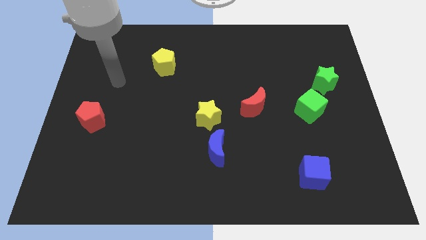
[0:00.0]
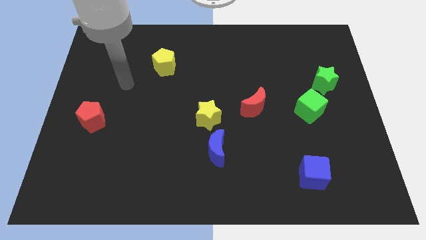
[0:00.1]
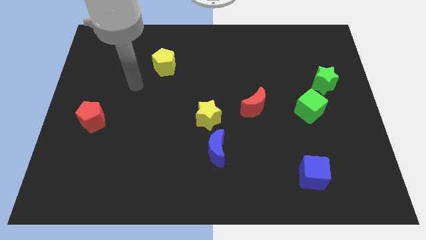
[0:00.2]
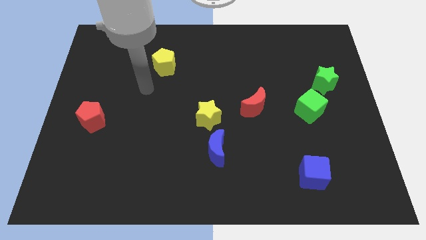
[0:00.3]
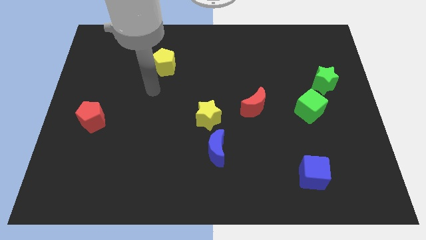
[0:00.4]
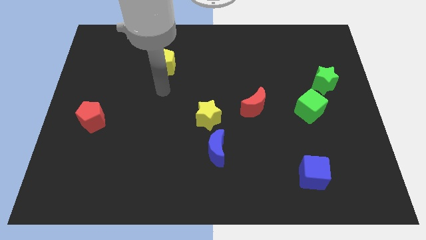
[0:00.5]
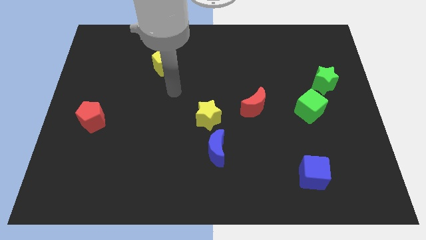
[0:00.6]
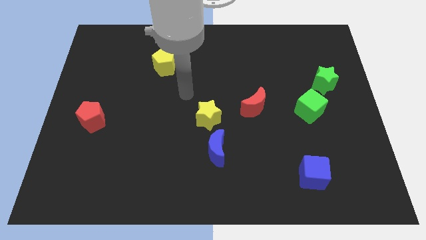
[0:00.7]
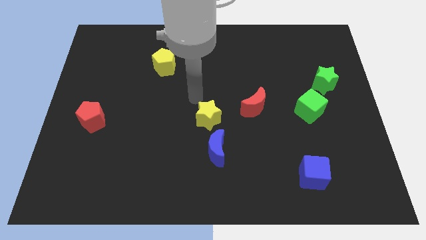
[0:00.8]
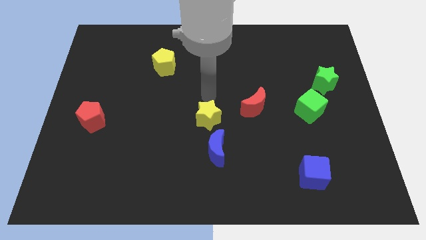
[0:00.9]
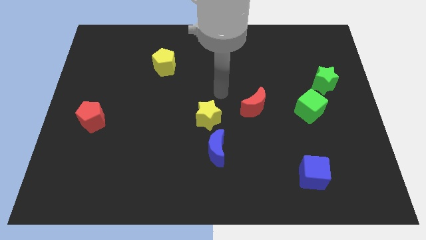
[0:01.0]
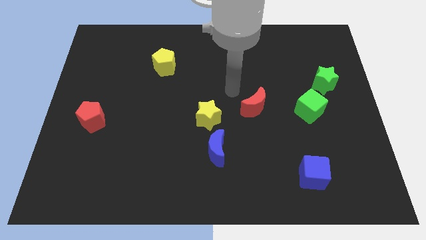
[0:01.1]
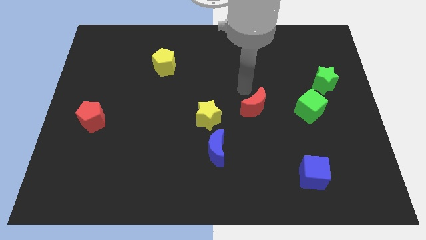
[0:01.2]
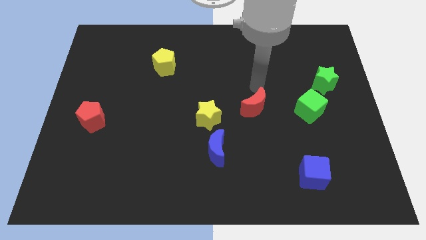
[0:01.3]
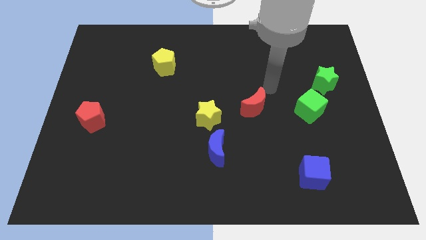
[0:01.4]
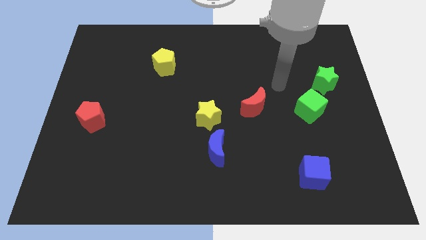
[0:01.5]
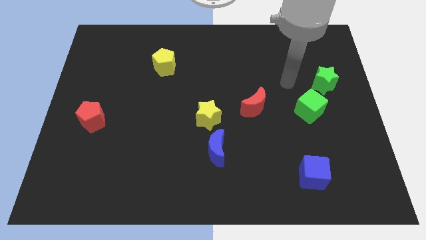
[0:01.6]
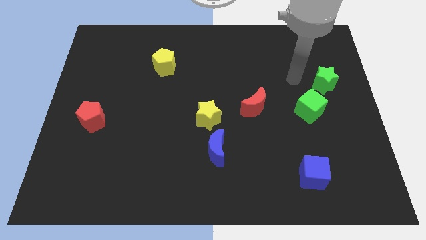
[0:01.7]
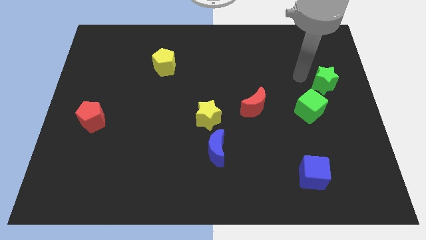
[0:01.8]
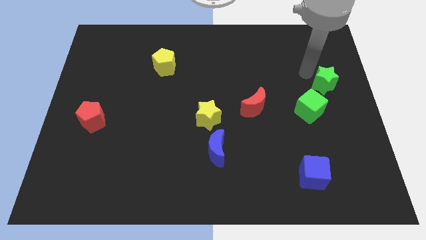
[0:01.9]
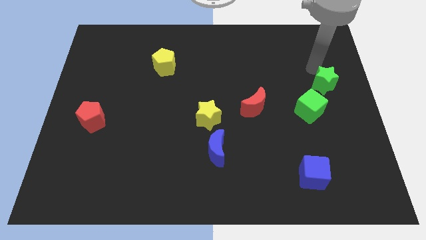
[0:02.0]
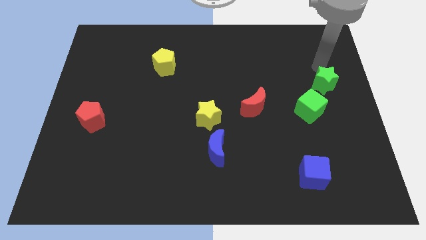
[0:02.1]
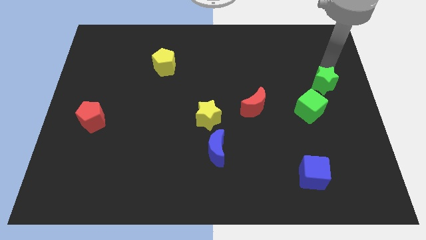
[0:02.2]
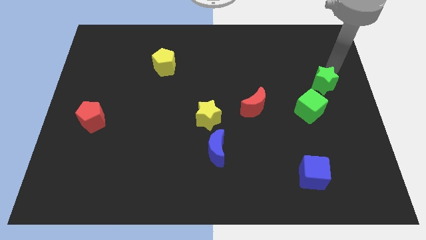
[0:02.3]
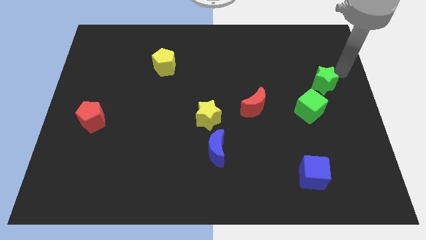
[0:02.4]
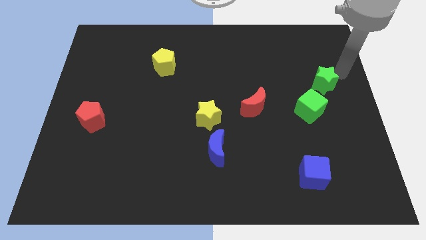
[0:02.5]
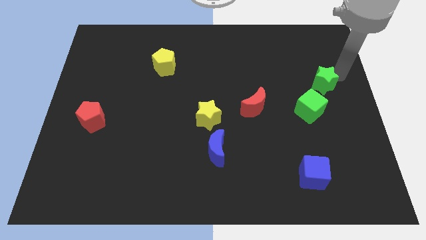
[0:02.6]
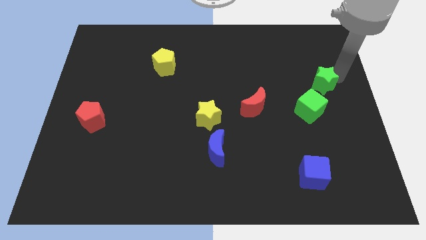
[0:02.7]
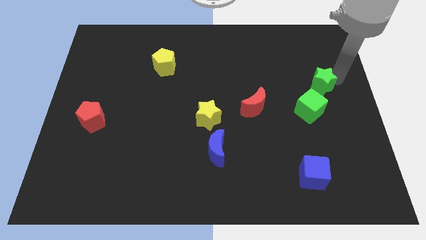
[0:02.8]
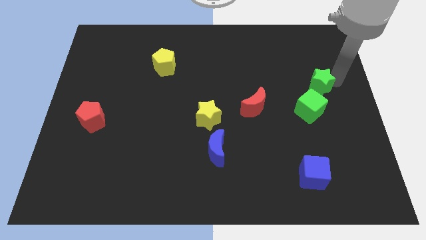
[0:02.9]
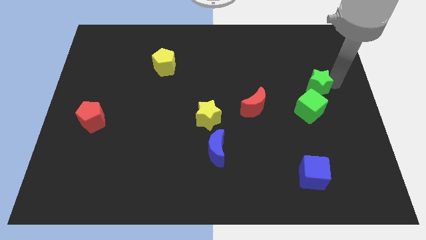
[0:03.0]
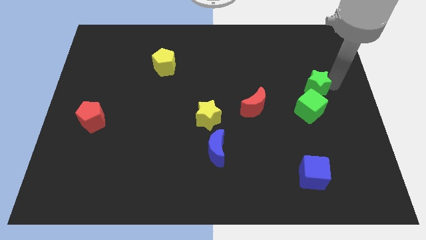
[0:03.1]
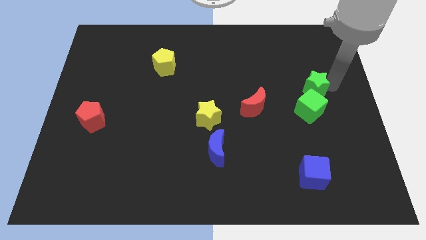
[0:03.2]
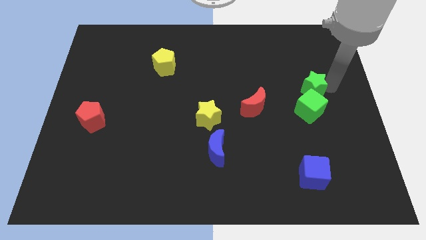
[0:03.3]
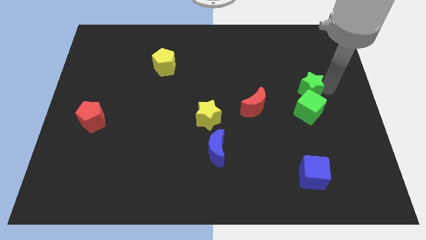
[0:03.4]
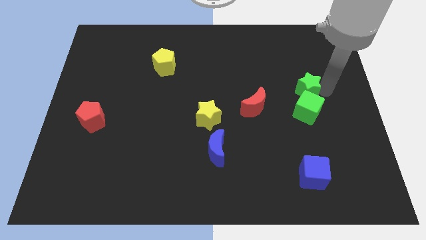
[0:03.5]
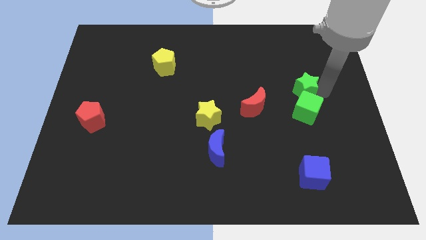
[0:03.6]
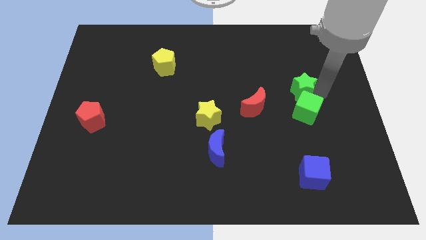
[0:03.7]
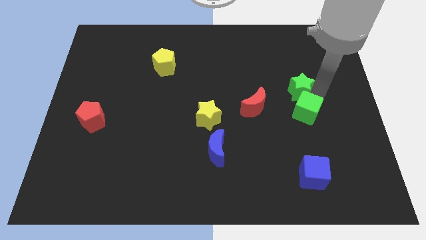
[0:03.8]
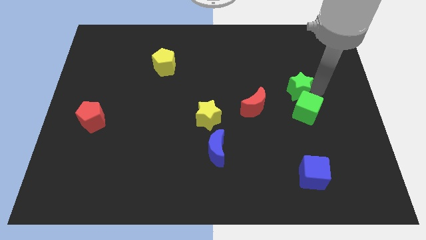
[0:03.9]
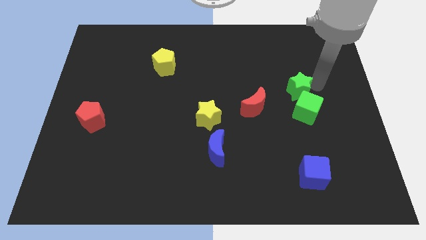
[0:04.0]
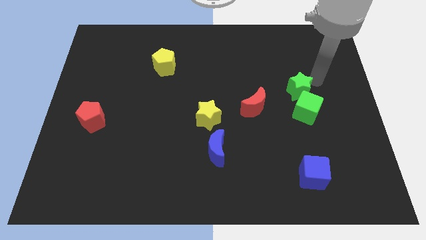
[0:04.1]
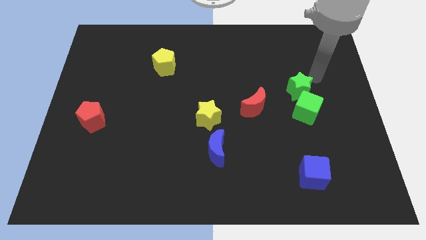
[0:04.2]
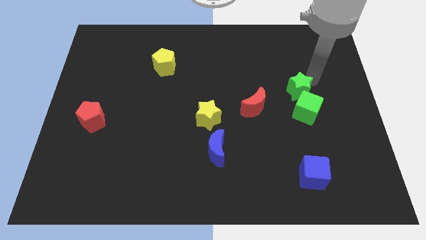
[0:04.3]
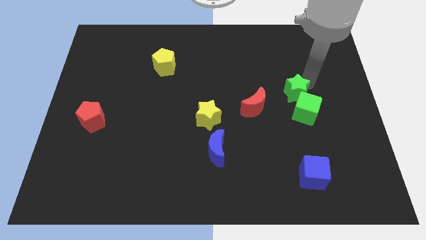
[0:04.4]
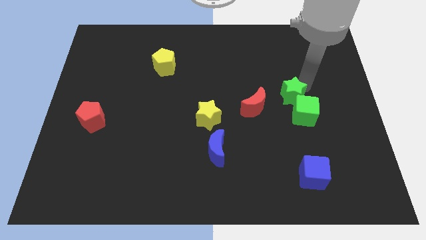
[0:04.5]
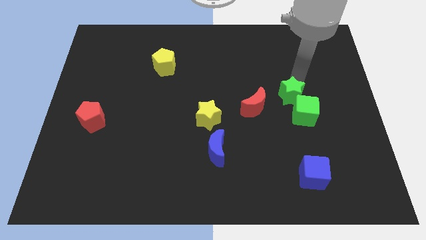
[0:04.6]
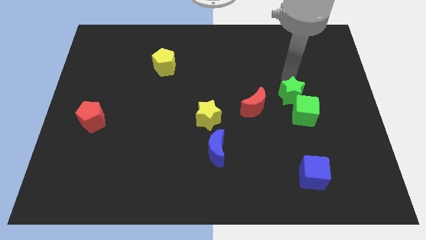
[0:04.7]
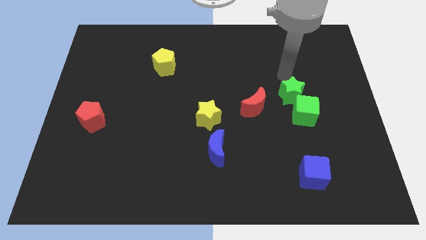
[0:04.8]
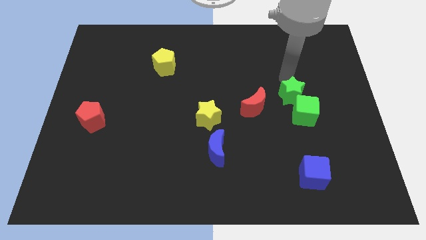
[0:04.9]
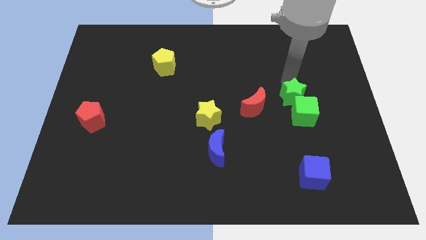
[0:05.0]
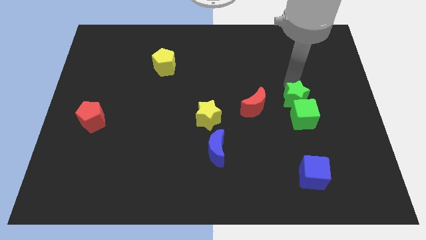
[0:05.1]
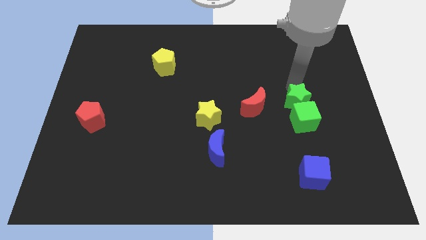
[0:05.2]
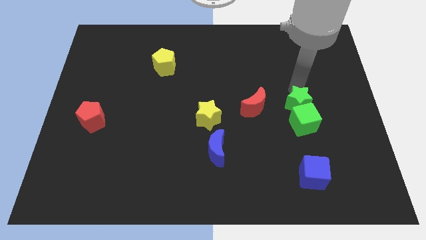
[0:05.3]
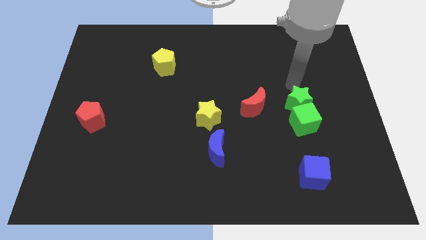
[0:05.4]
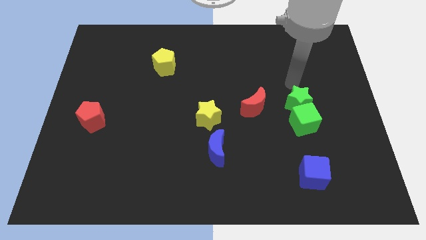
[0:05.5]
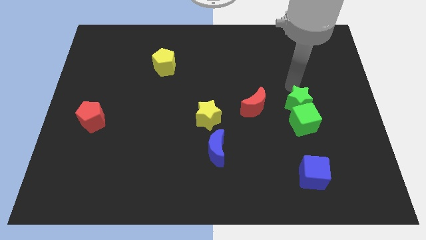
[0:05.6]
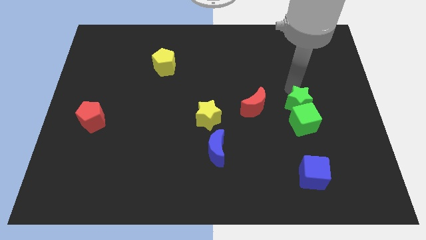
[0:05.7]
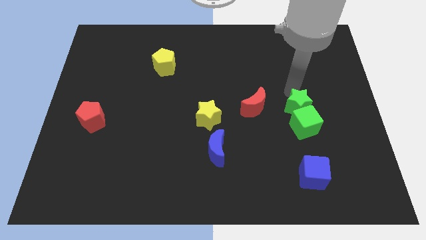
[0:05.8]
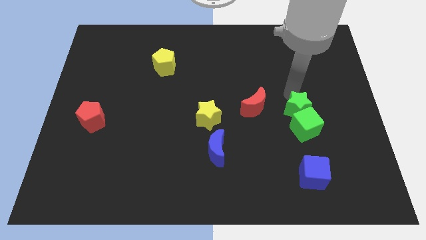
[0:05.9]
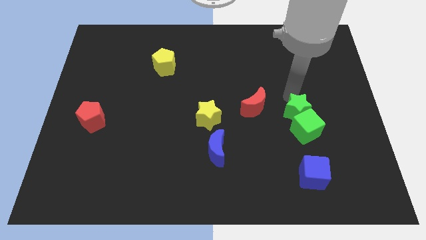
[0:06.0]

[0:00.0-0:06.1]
put the green star to the top of the blue cube

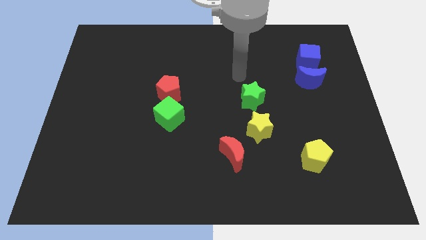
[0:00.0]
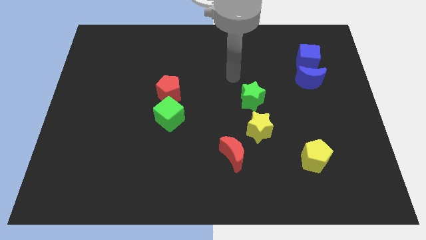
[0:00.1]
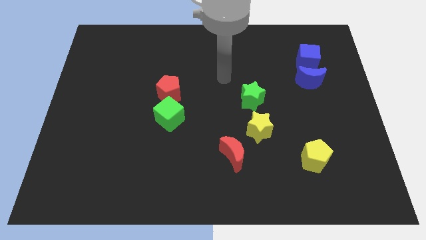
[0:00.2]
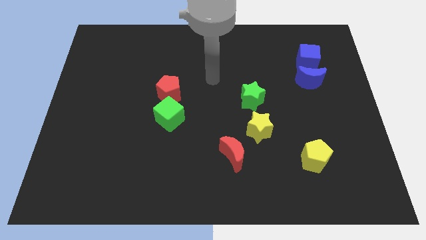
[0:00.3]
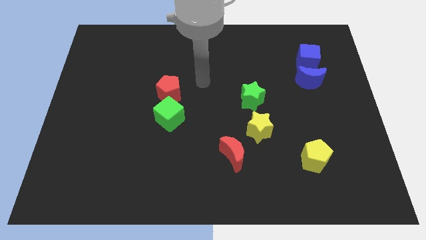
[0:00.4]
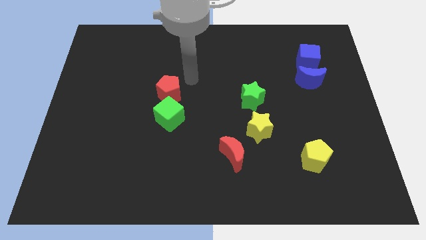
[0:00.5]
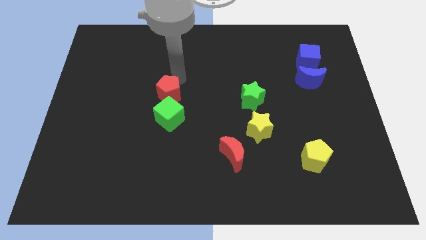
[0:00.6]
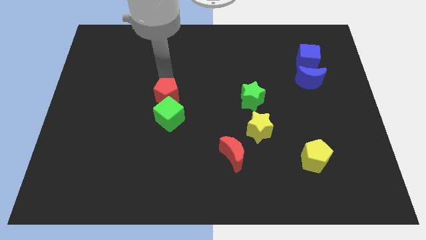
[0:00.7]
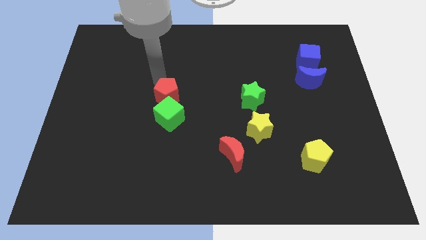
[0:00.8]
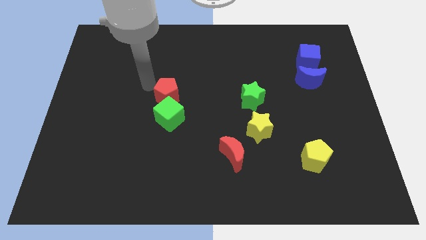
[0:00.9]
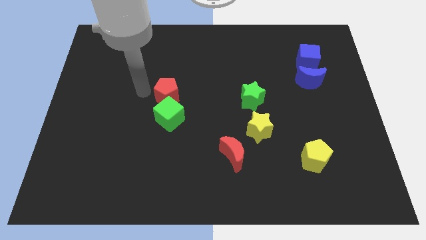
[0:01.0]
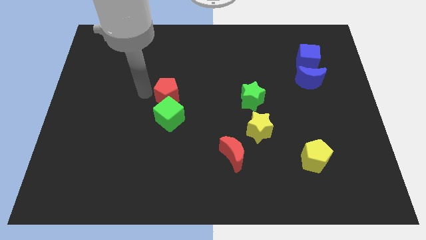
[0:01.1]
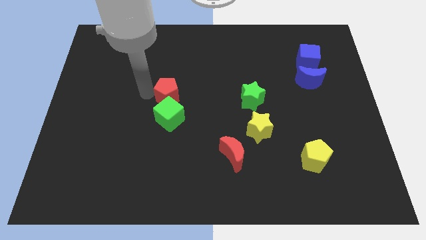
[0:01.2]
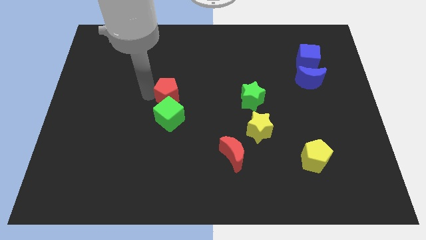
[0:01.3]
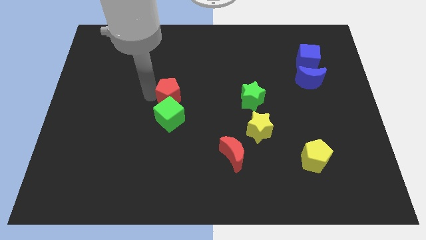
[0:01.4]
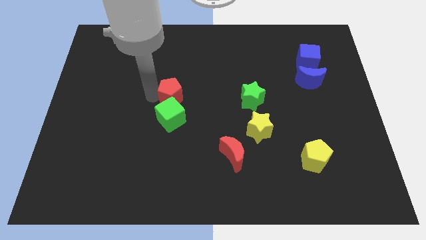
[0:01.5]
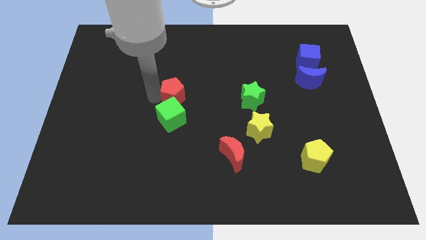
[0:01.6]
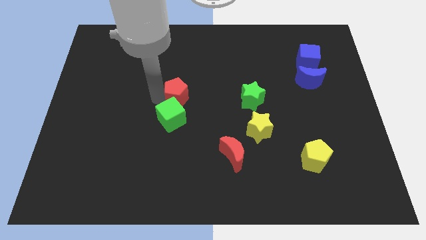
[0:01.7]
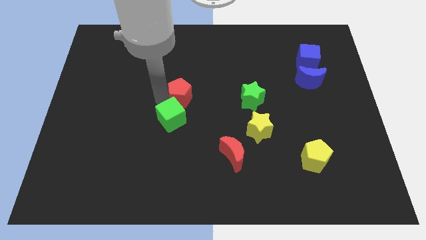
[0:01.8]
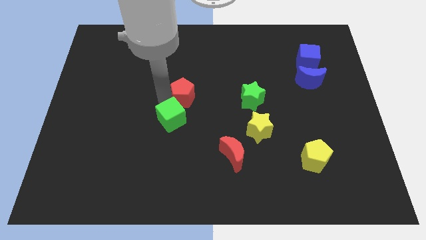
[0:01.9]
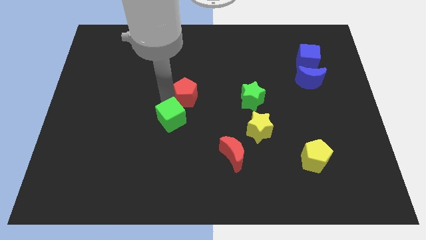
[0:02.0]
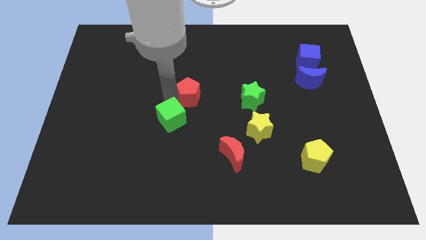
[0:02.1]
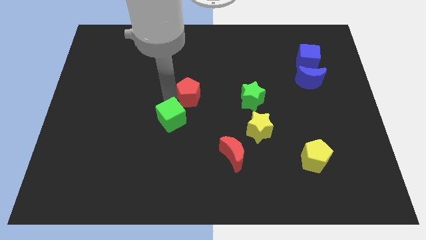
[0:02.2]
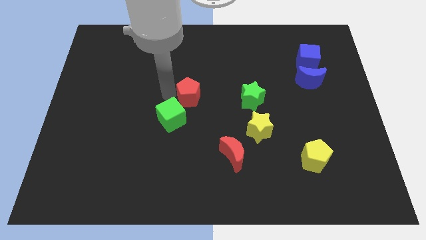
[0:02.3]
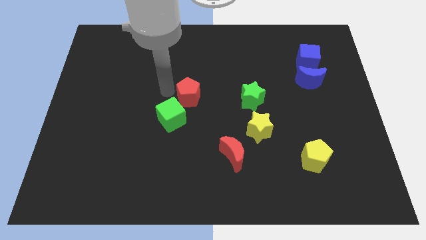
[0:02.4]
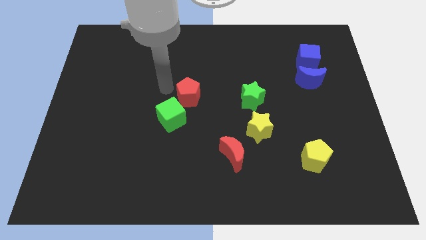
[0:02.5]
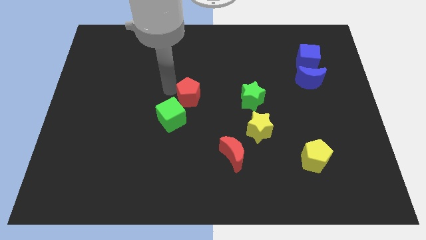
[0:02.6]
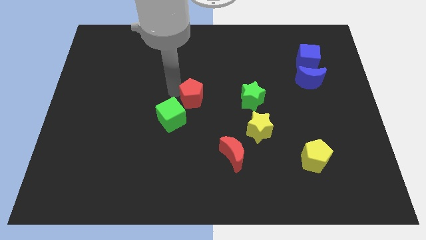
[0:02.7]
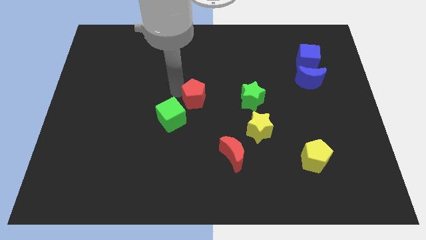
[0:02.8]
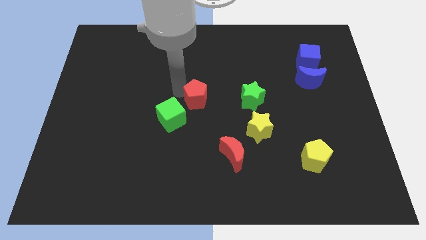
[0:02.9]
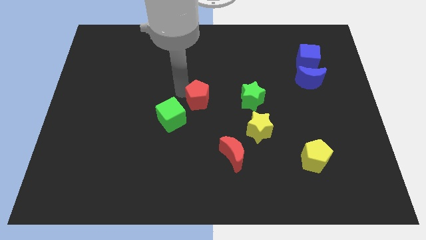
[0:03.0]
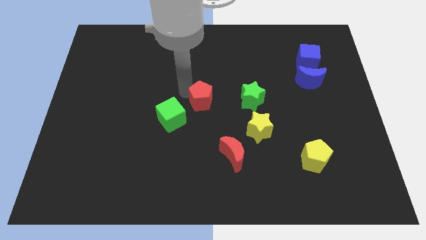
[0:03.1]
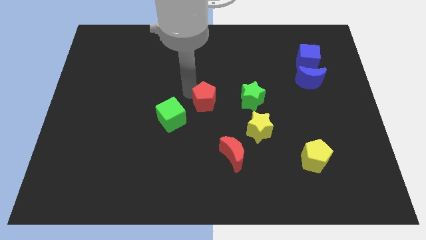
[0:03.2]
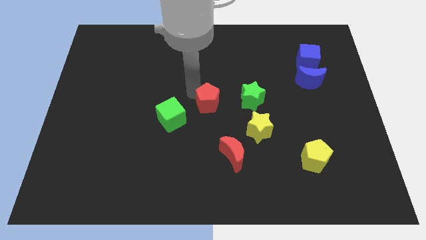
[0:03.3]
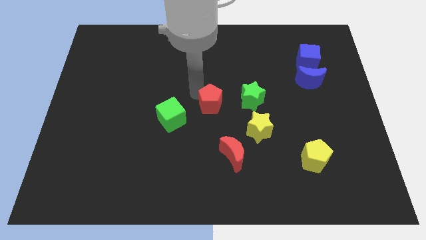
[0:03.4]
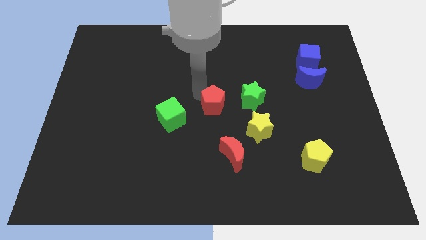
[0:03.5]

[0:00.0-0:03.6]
slide the red pentagon to the top of the red moon
